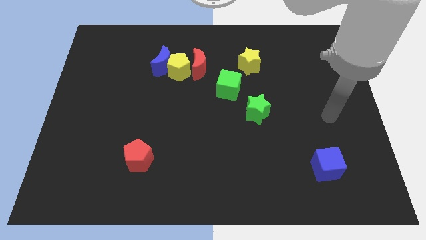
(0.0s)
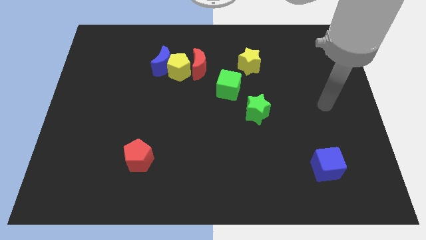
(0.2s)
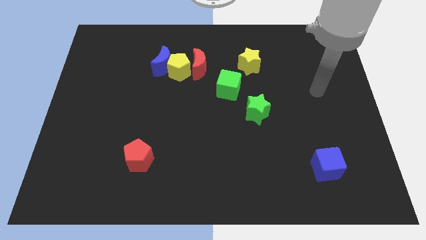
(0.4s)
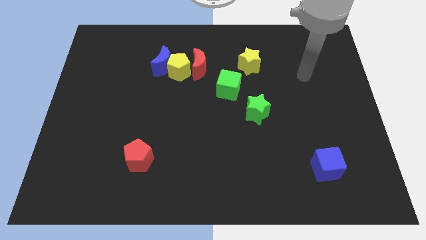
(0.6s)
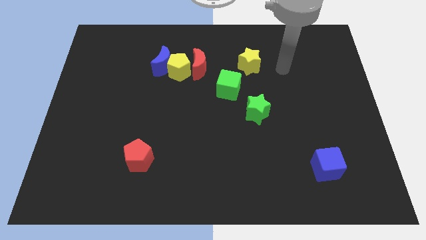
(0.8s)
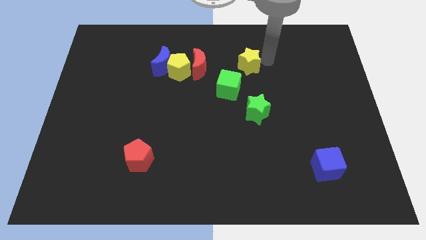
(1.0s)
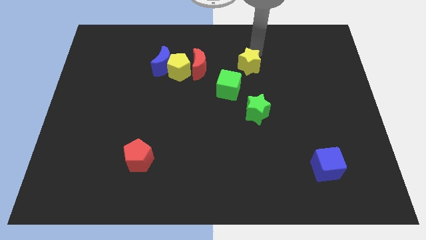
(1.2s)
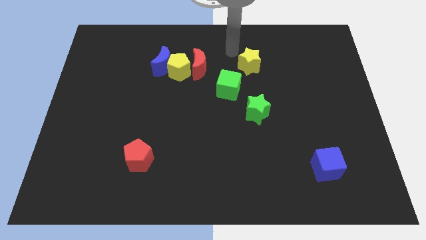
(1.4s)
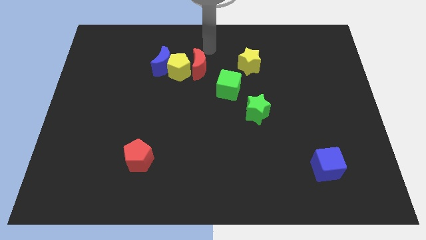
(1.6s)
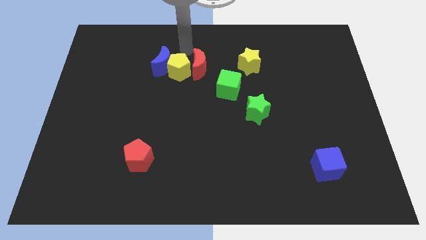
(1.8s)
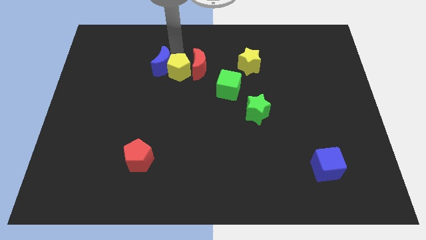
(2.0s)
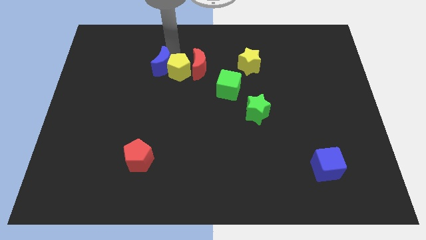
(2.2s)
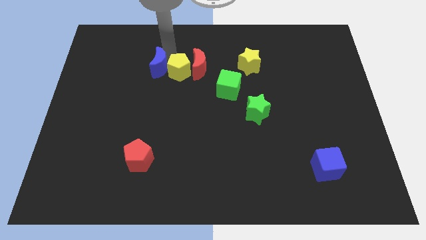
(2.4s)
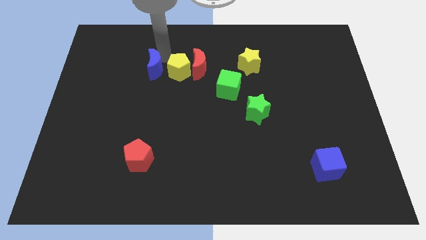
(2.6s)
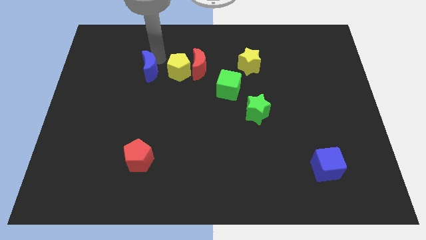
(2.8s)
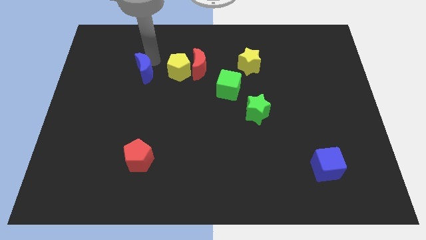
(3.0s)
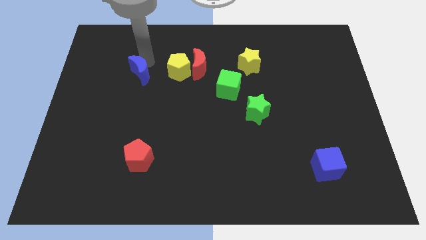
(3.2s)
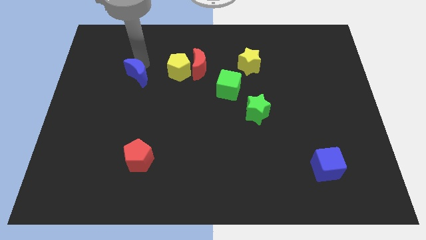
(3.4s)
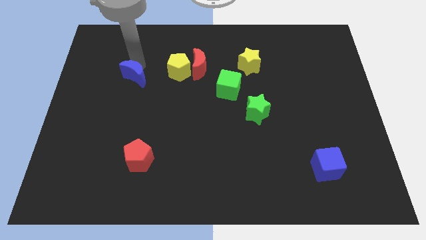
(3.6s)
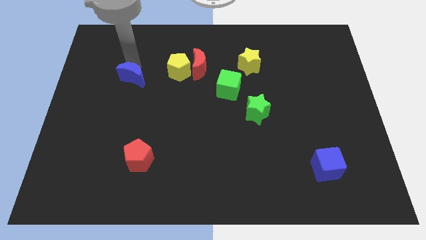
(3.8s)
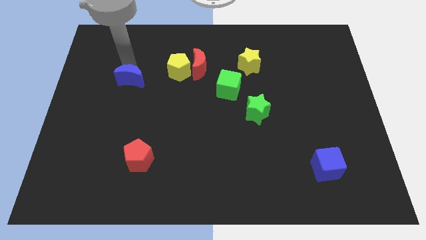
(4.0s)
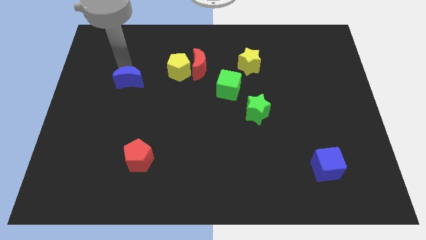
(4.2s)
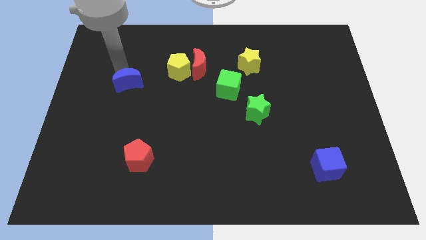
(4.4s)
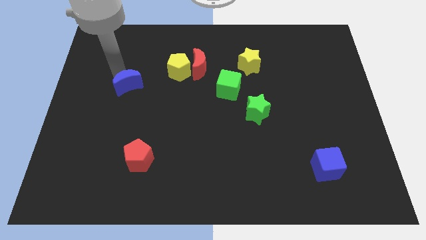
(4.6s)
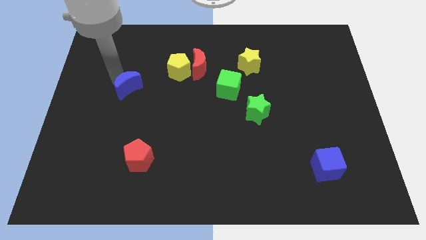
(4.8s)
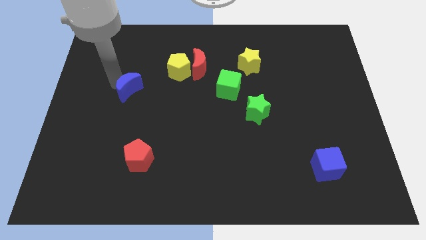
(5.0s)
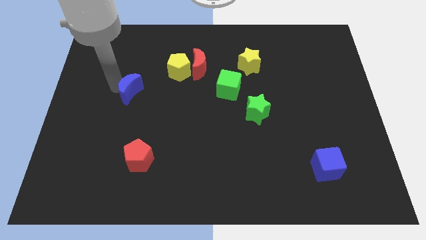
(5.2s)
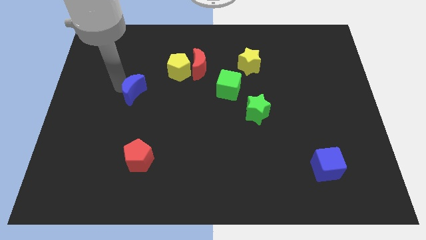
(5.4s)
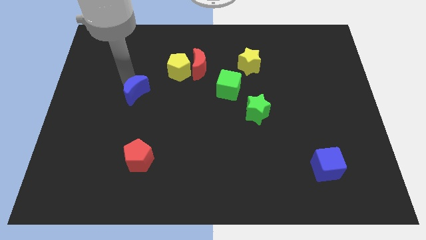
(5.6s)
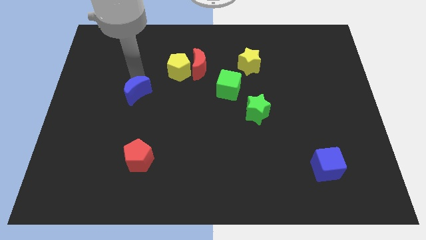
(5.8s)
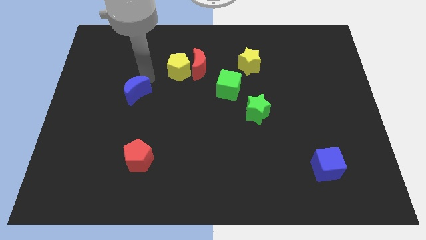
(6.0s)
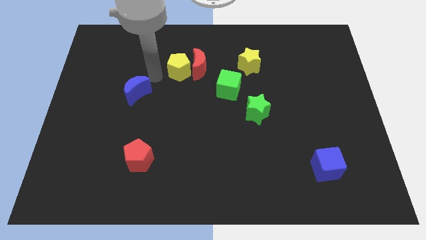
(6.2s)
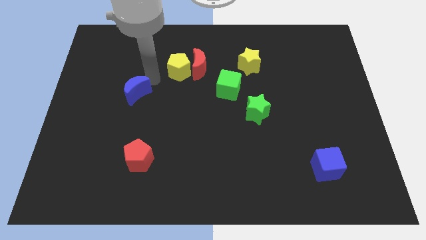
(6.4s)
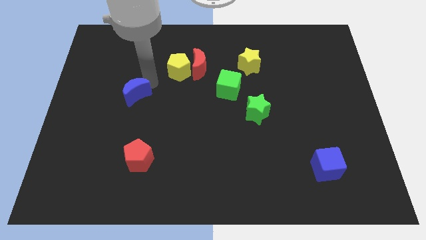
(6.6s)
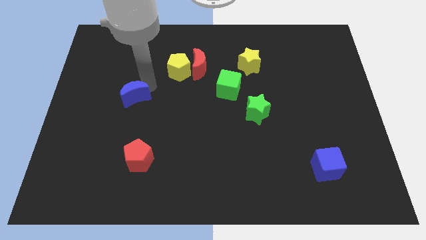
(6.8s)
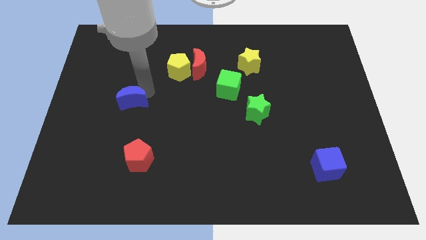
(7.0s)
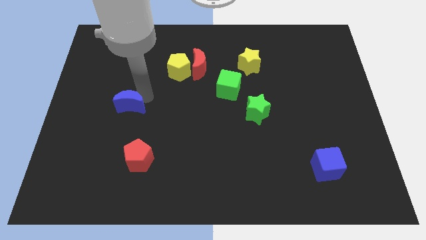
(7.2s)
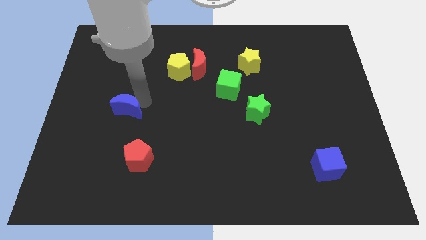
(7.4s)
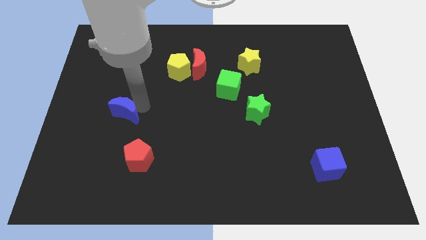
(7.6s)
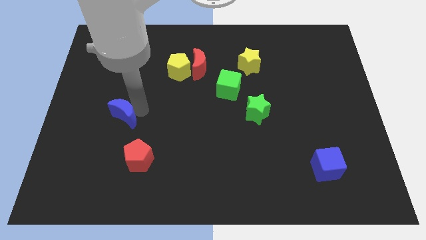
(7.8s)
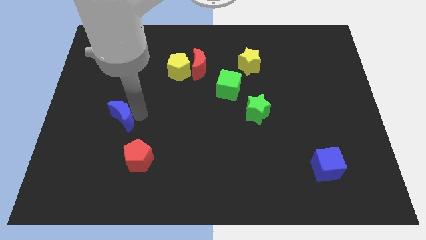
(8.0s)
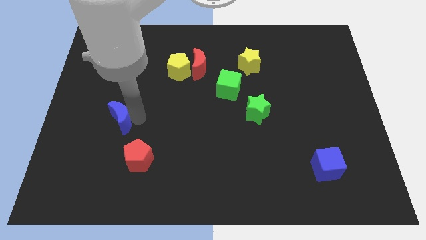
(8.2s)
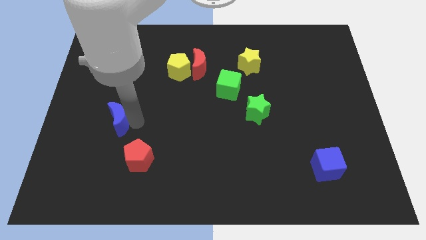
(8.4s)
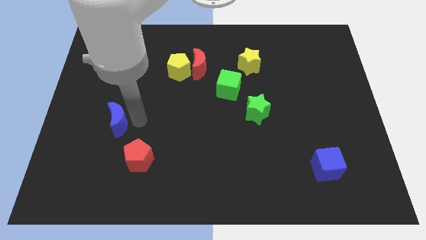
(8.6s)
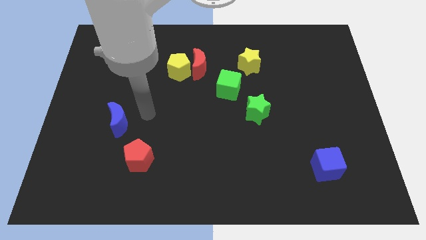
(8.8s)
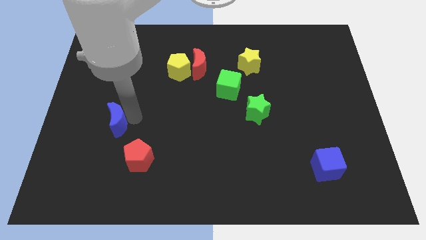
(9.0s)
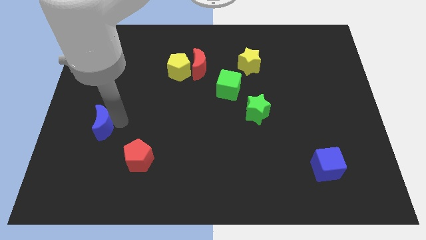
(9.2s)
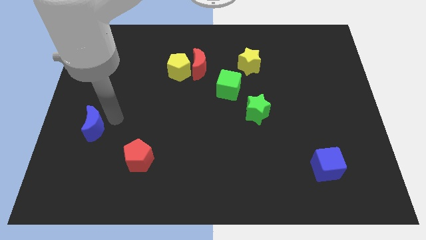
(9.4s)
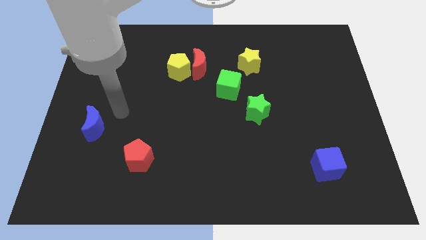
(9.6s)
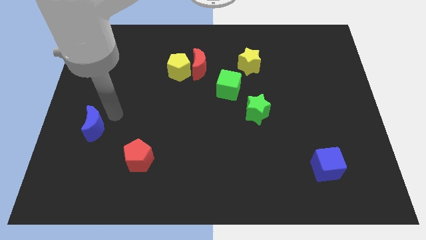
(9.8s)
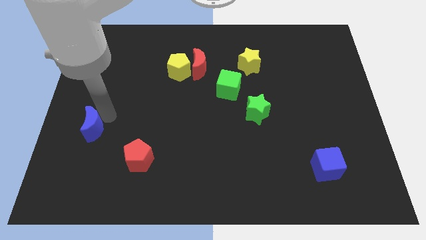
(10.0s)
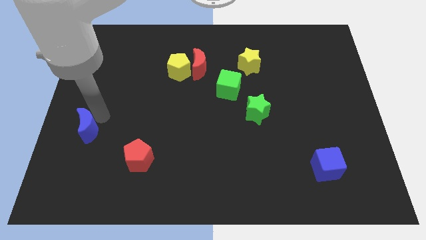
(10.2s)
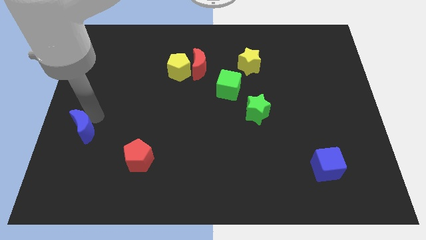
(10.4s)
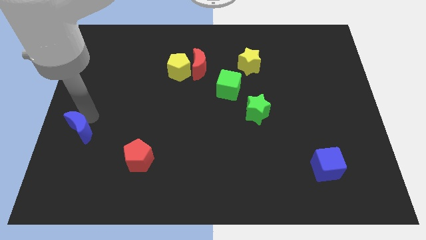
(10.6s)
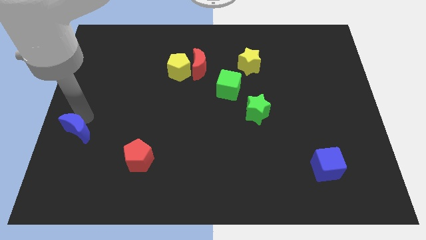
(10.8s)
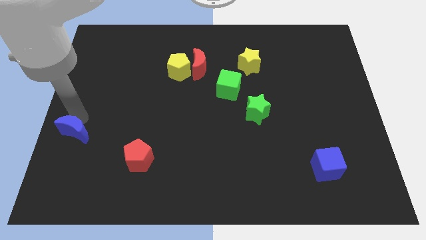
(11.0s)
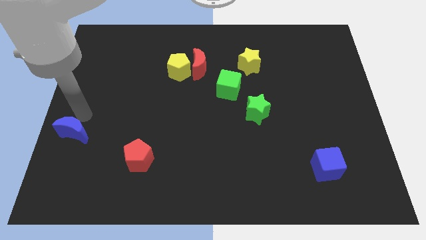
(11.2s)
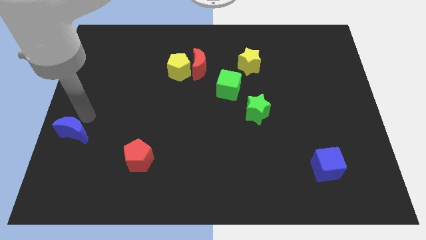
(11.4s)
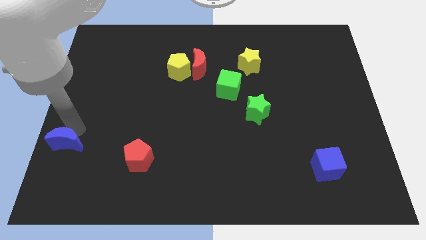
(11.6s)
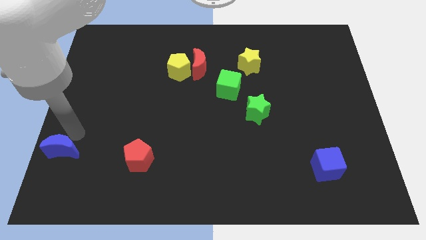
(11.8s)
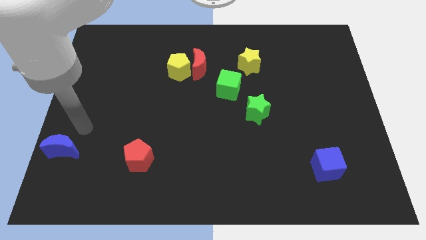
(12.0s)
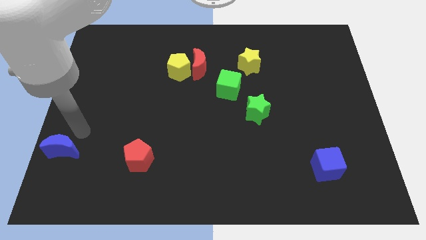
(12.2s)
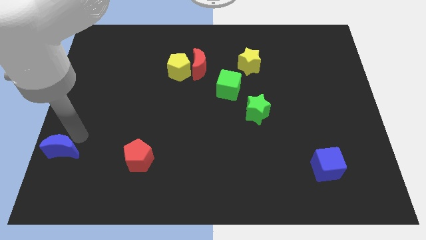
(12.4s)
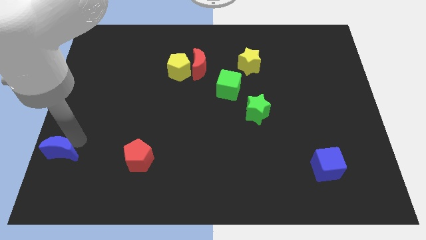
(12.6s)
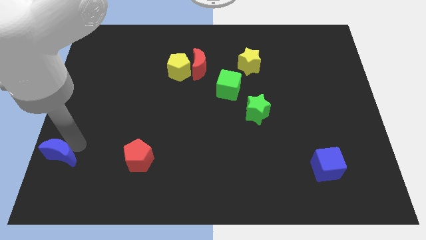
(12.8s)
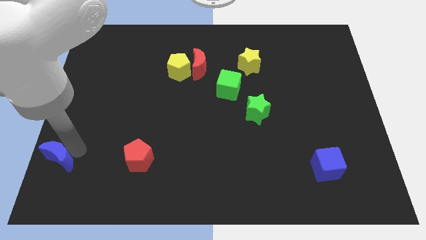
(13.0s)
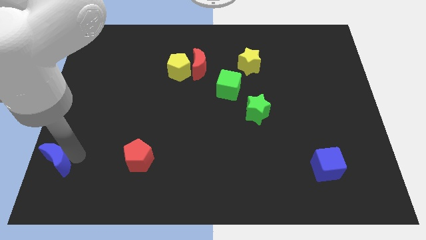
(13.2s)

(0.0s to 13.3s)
put the blue moon to the bottom left
